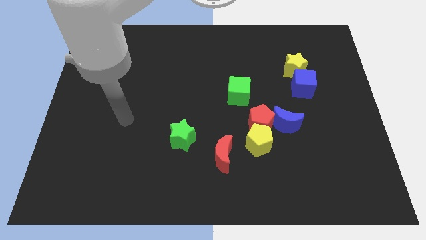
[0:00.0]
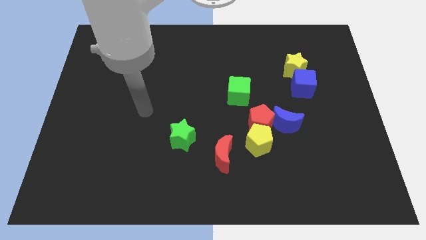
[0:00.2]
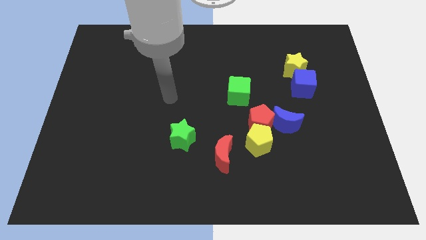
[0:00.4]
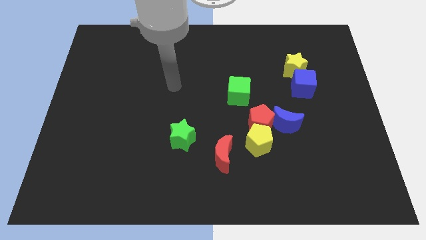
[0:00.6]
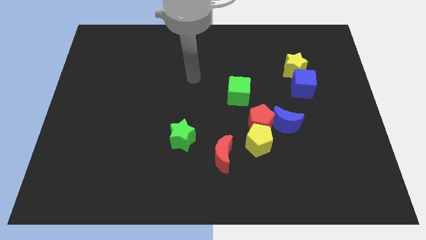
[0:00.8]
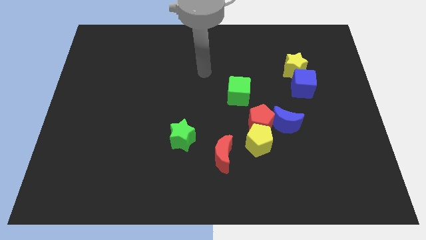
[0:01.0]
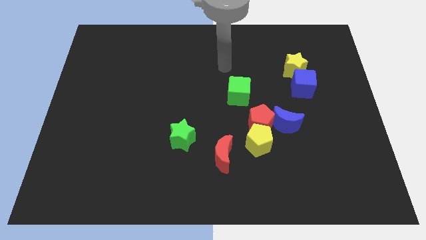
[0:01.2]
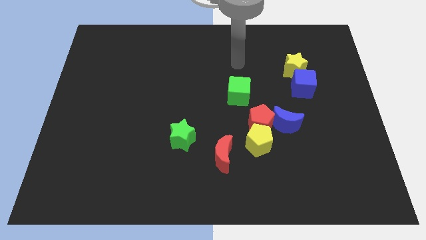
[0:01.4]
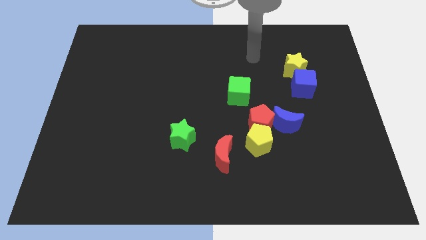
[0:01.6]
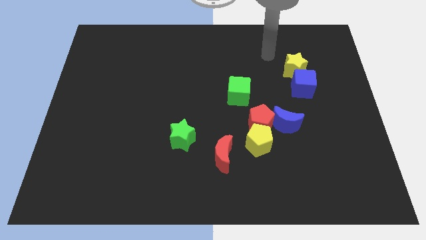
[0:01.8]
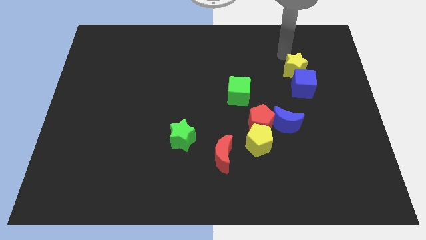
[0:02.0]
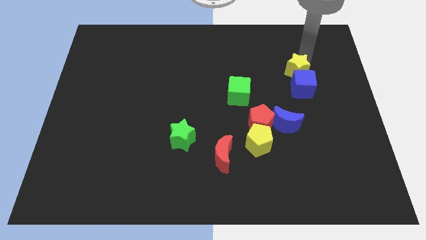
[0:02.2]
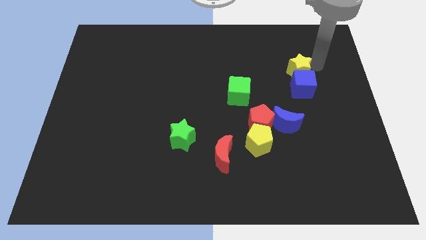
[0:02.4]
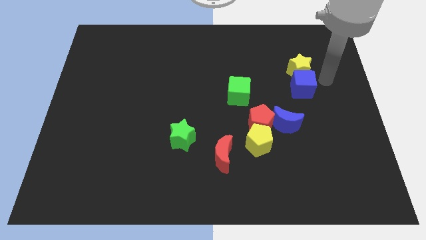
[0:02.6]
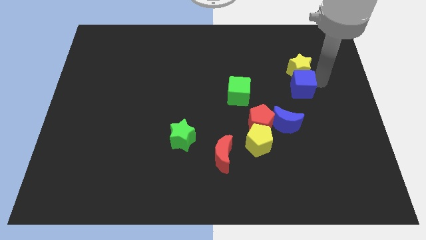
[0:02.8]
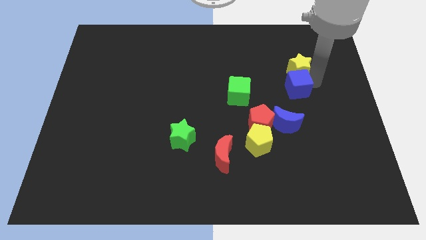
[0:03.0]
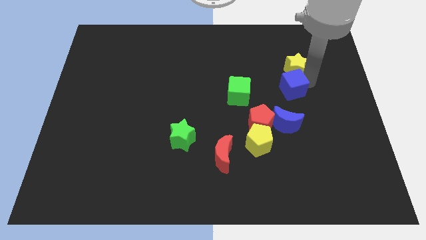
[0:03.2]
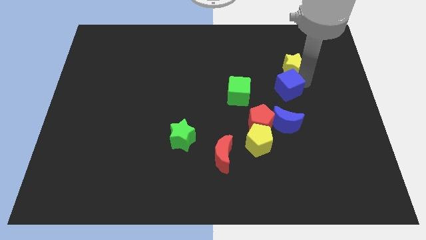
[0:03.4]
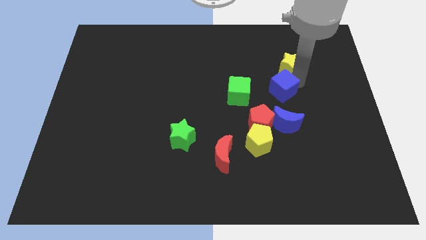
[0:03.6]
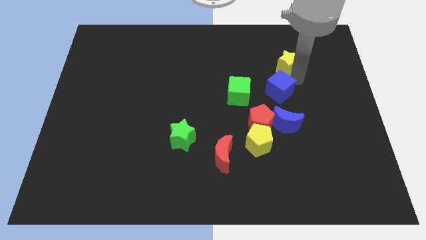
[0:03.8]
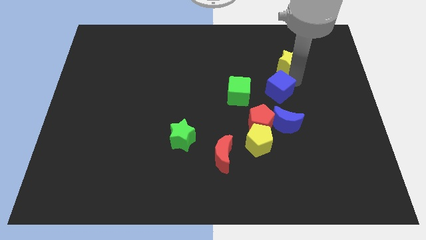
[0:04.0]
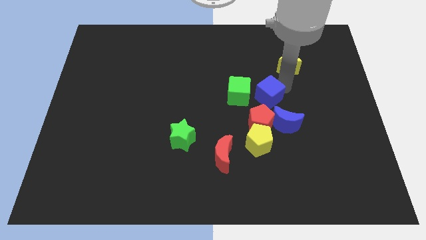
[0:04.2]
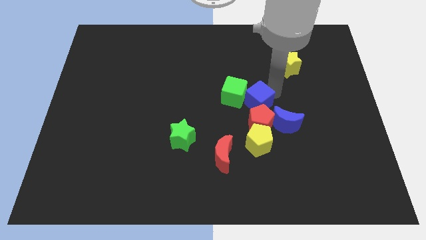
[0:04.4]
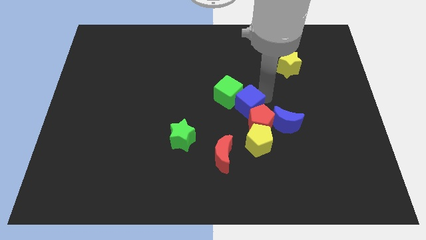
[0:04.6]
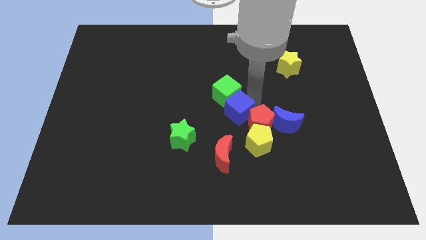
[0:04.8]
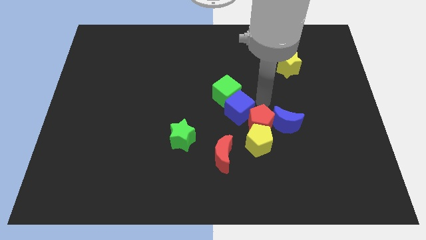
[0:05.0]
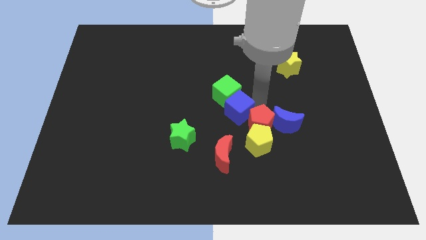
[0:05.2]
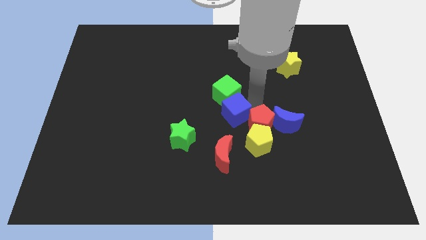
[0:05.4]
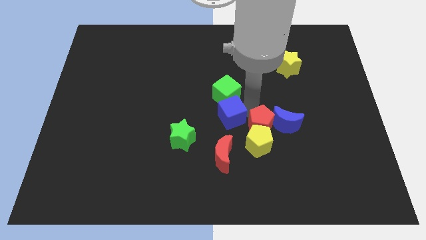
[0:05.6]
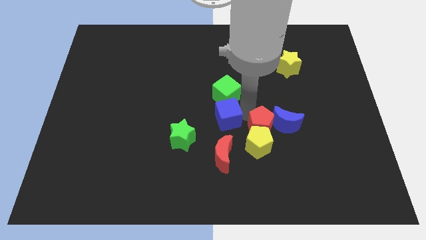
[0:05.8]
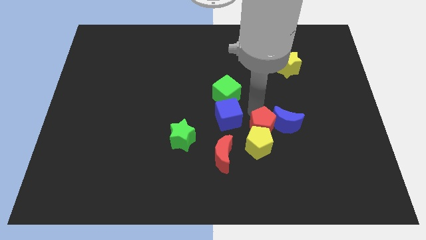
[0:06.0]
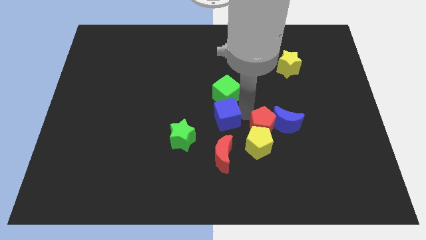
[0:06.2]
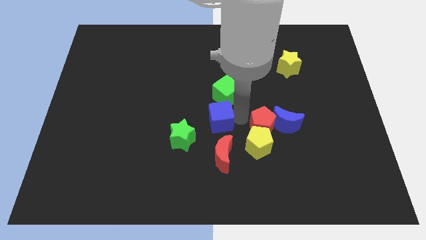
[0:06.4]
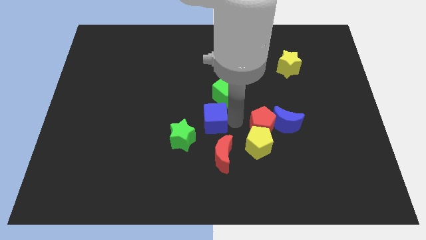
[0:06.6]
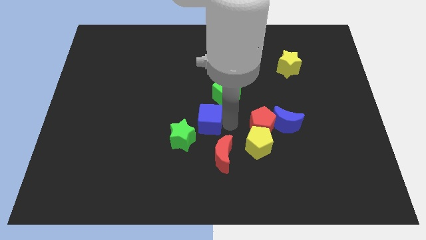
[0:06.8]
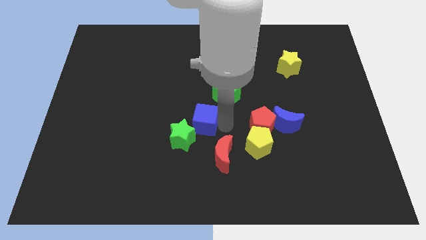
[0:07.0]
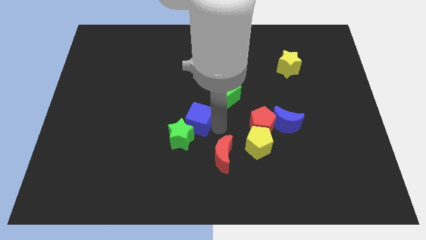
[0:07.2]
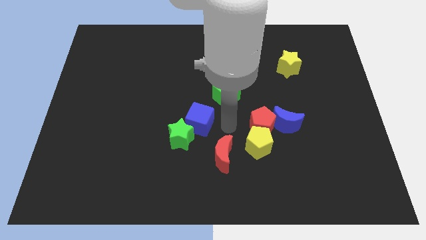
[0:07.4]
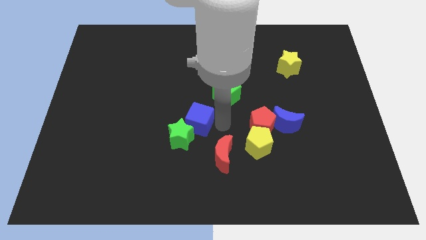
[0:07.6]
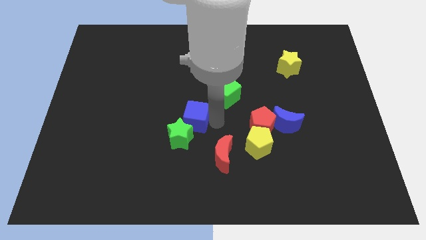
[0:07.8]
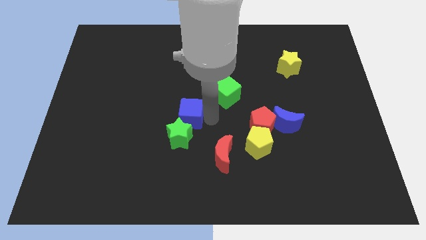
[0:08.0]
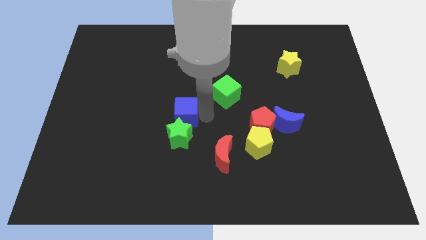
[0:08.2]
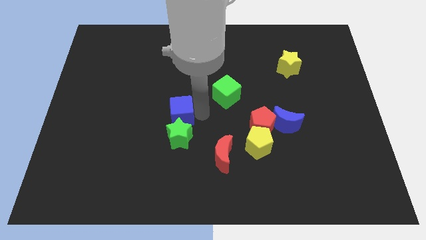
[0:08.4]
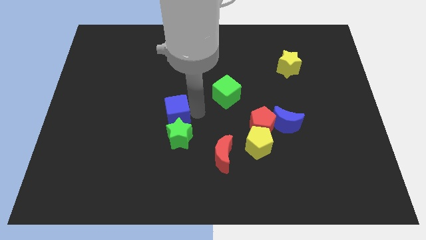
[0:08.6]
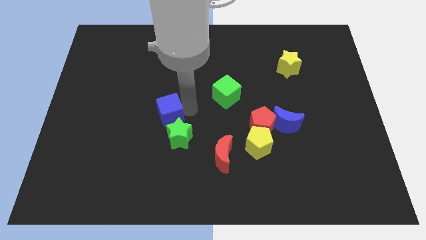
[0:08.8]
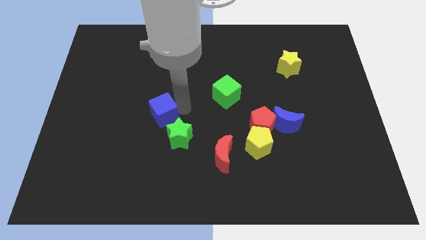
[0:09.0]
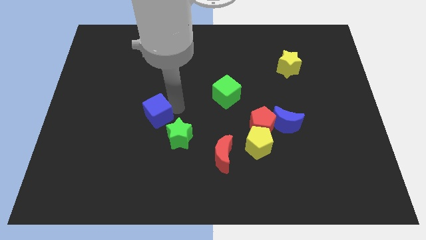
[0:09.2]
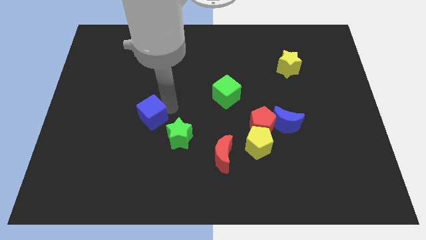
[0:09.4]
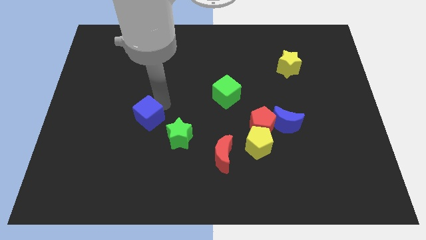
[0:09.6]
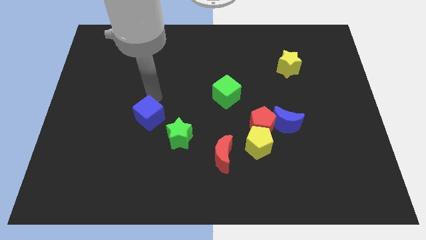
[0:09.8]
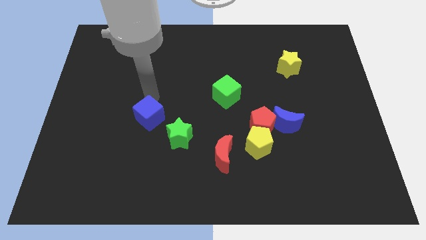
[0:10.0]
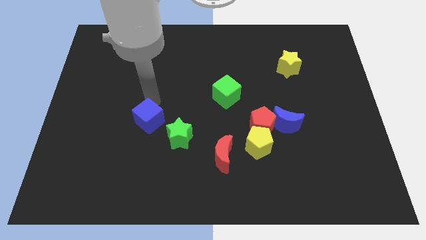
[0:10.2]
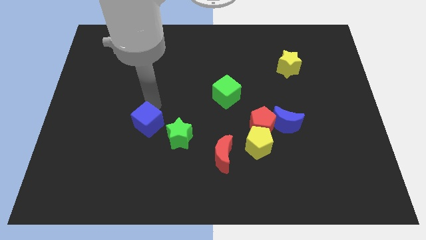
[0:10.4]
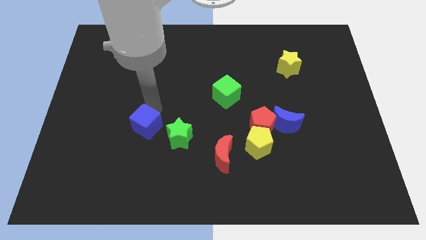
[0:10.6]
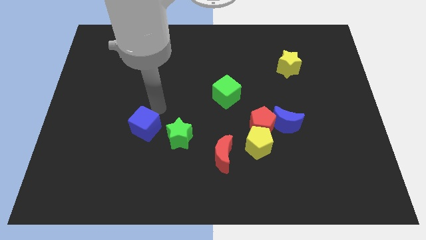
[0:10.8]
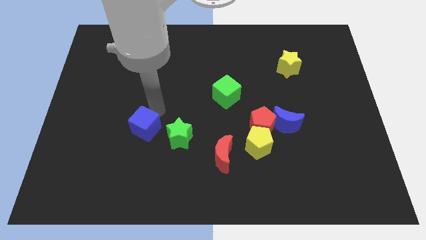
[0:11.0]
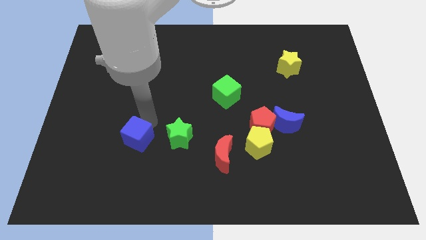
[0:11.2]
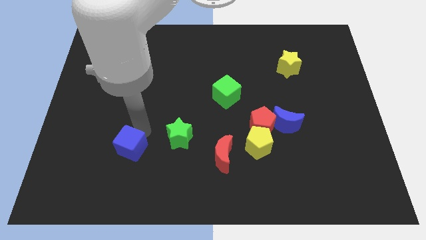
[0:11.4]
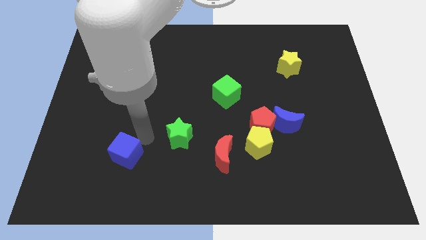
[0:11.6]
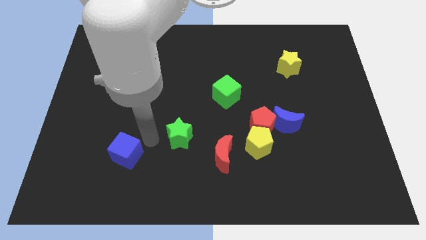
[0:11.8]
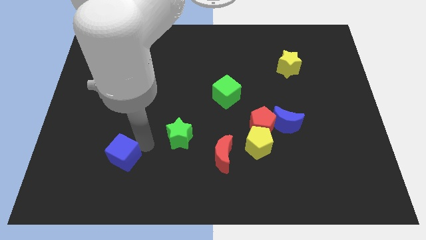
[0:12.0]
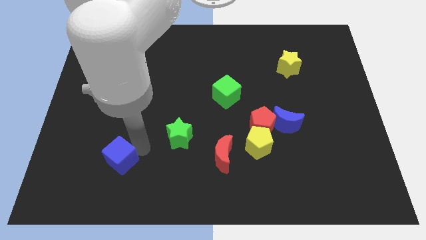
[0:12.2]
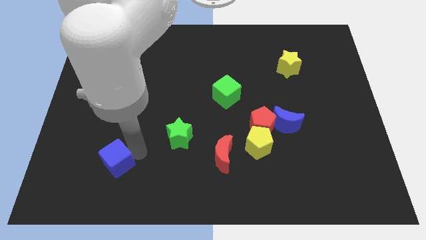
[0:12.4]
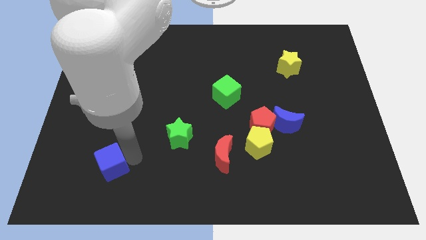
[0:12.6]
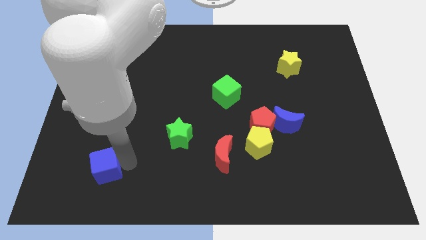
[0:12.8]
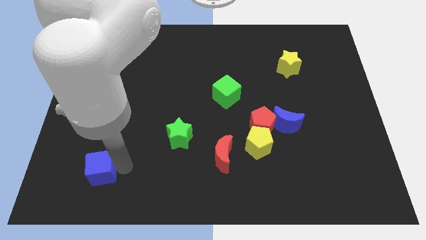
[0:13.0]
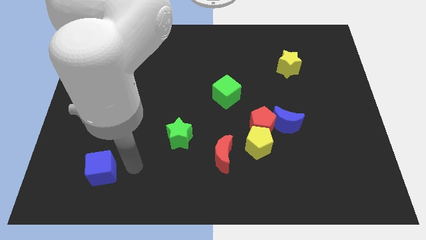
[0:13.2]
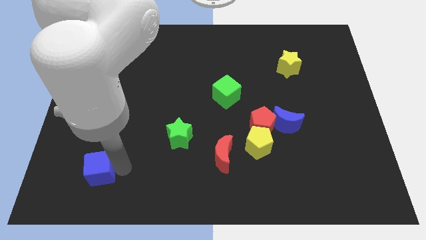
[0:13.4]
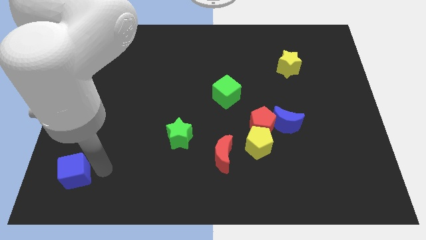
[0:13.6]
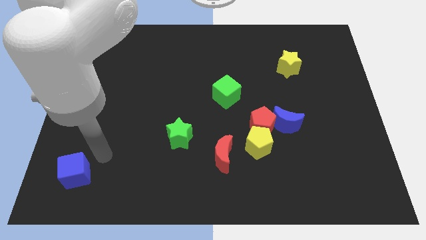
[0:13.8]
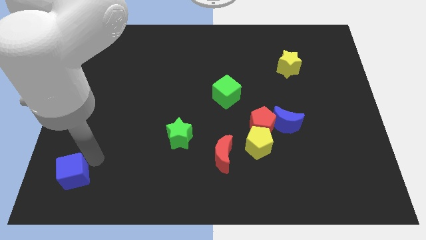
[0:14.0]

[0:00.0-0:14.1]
slide the blue cube to the lower left corner

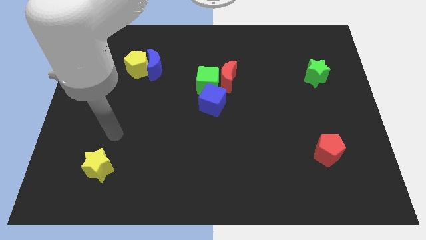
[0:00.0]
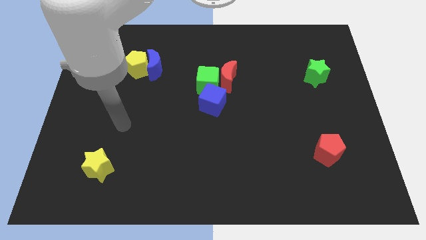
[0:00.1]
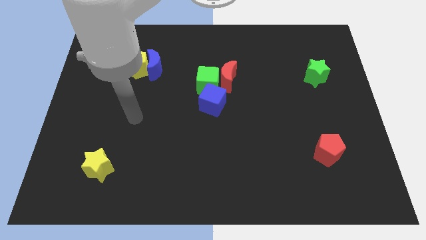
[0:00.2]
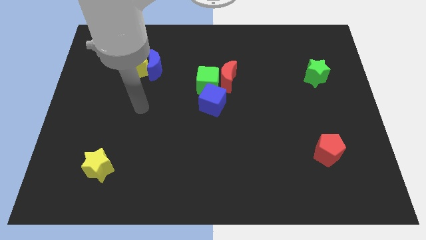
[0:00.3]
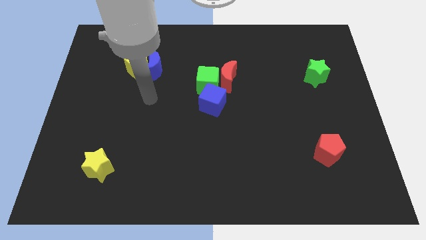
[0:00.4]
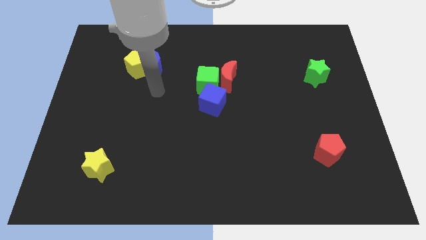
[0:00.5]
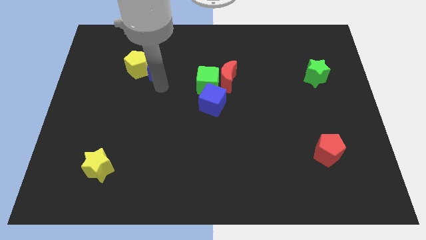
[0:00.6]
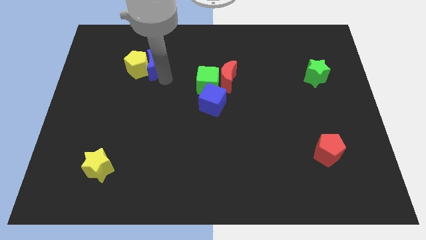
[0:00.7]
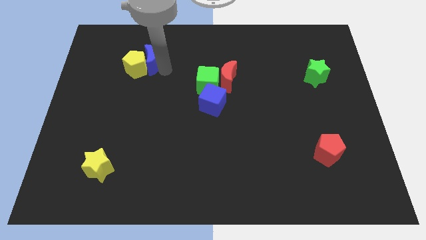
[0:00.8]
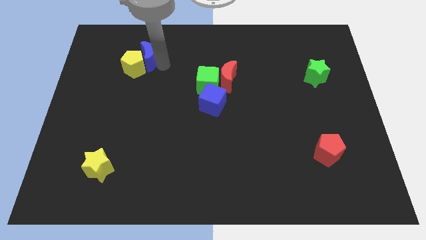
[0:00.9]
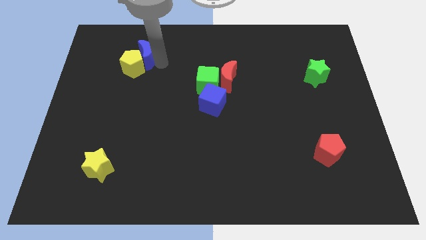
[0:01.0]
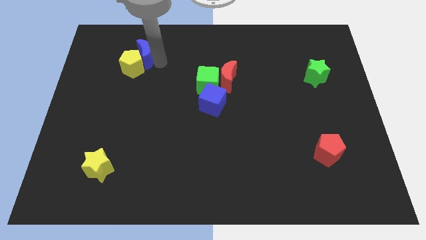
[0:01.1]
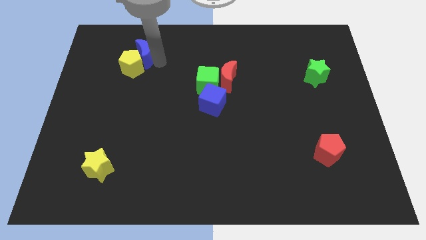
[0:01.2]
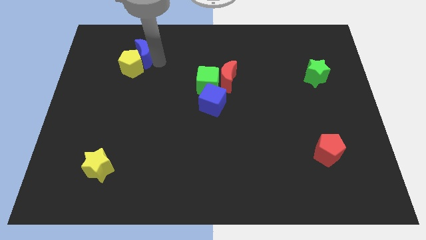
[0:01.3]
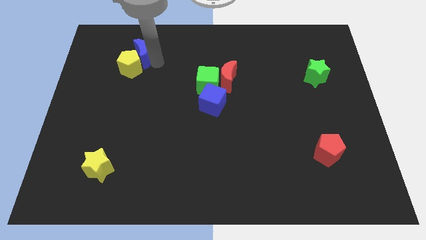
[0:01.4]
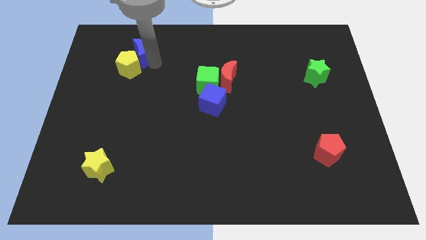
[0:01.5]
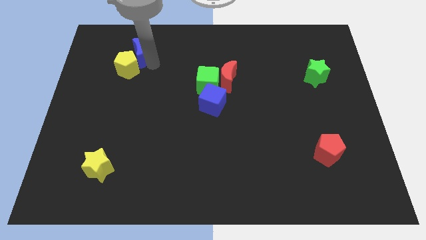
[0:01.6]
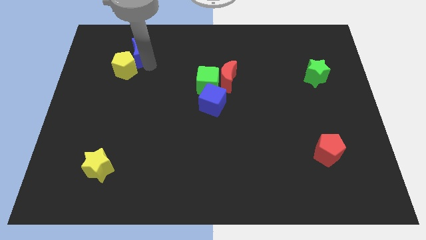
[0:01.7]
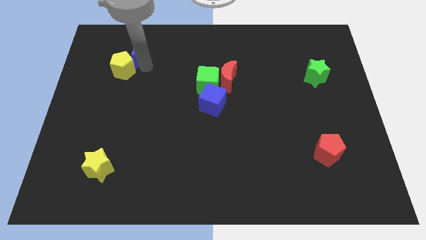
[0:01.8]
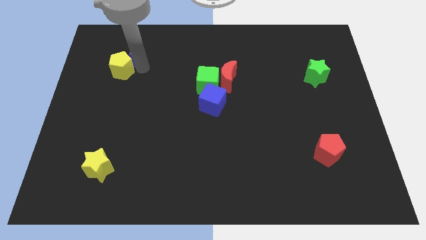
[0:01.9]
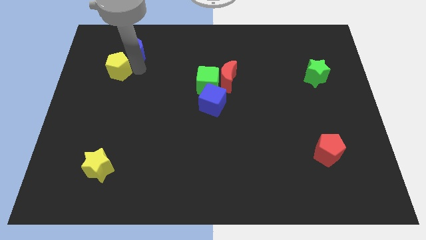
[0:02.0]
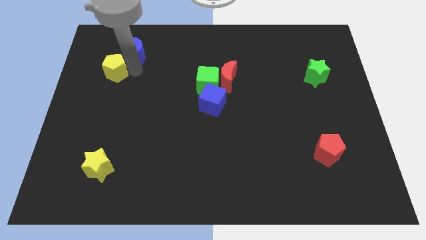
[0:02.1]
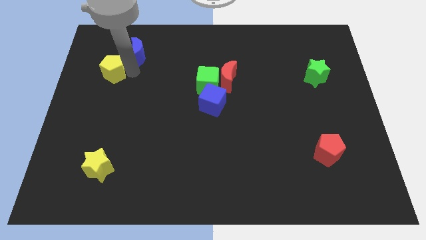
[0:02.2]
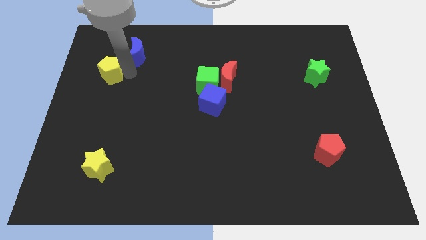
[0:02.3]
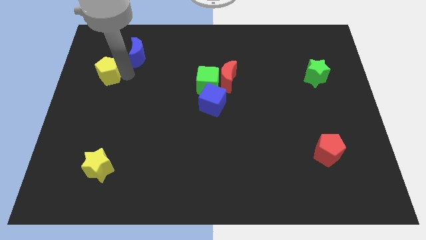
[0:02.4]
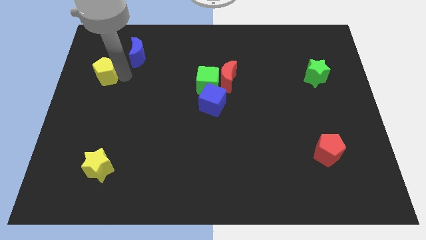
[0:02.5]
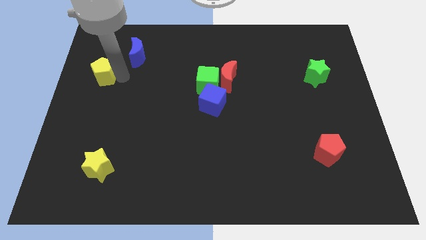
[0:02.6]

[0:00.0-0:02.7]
put the yellow pentagon to the center left
